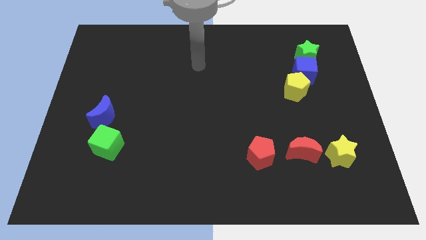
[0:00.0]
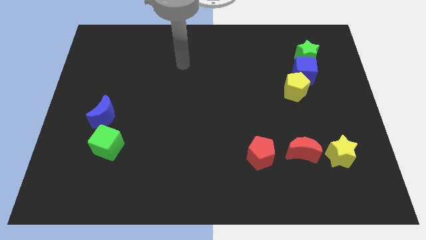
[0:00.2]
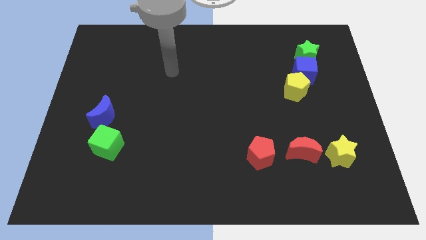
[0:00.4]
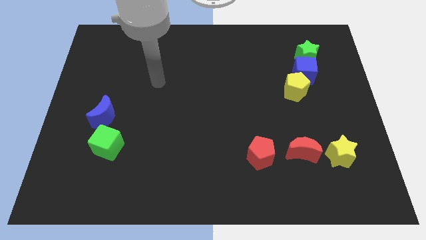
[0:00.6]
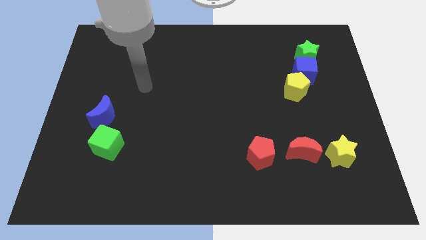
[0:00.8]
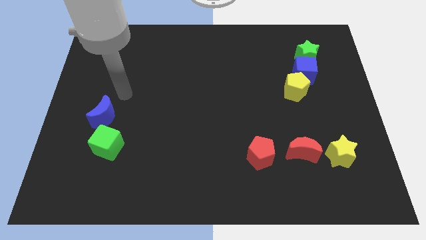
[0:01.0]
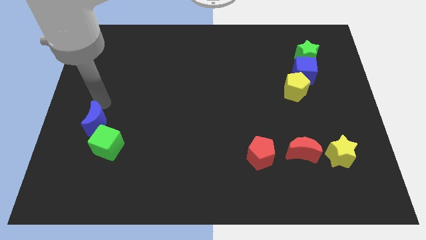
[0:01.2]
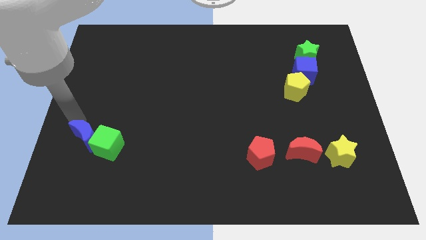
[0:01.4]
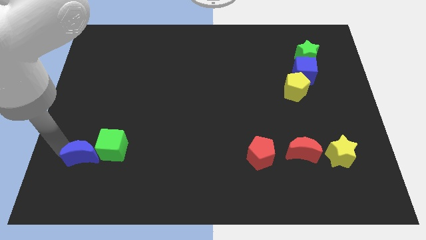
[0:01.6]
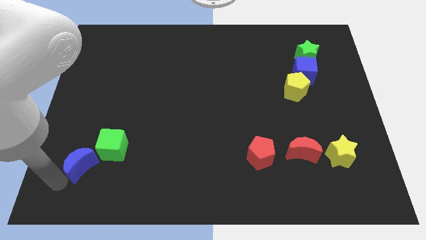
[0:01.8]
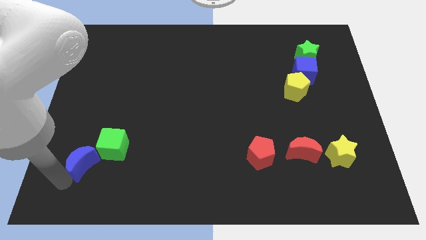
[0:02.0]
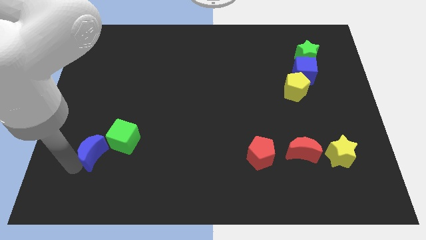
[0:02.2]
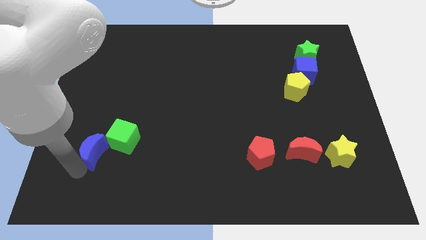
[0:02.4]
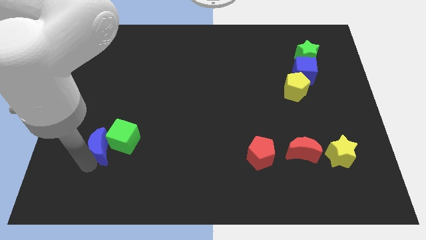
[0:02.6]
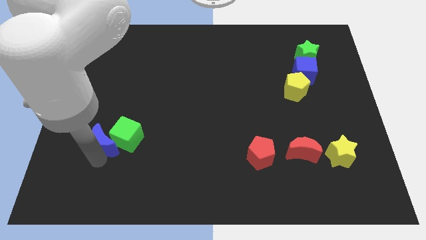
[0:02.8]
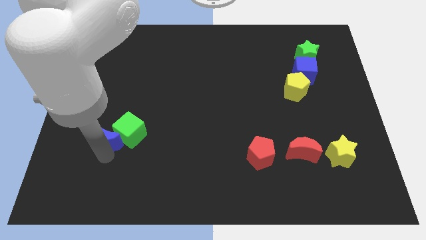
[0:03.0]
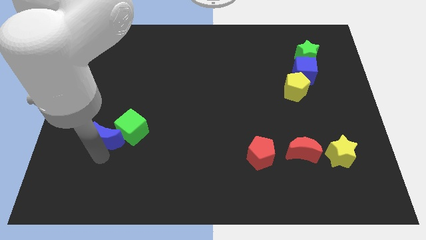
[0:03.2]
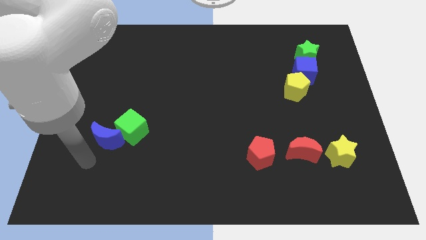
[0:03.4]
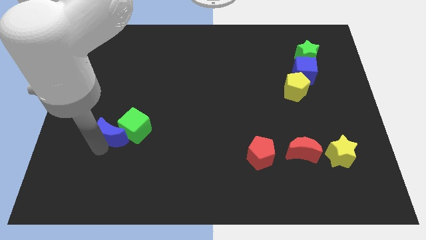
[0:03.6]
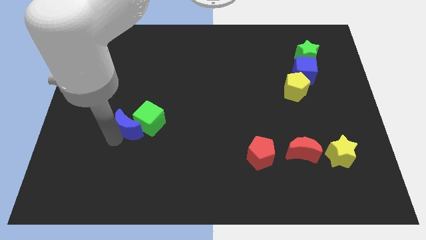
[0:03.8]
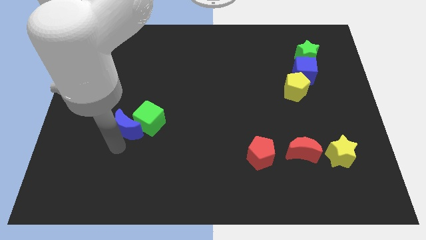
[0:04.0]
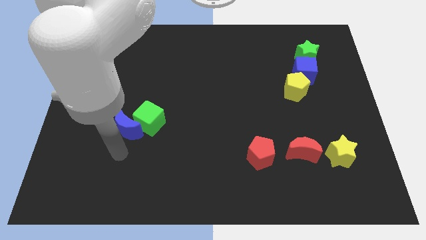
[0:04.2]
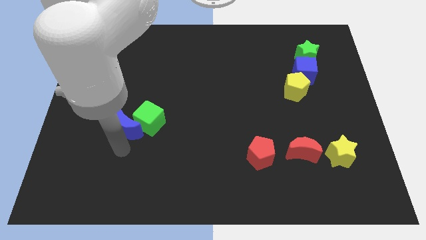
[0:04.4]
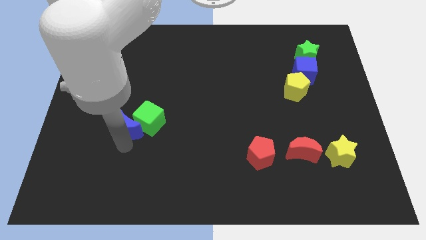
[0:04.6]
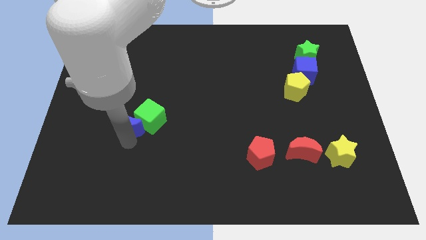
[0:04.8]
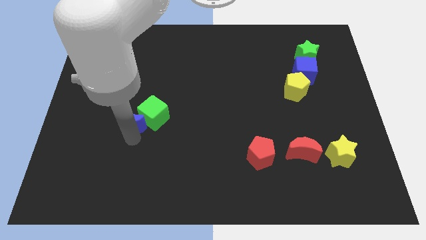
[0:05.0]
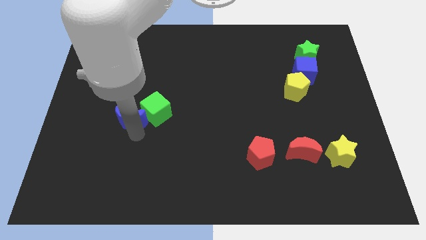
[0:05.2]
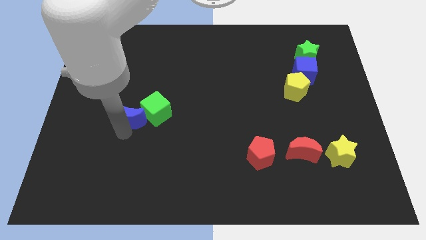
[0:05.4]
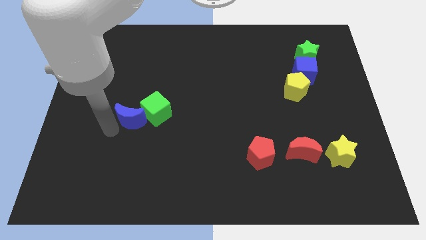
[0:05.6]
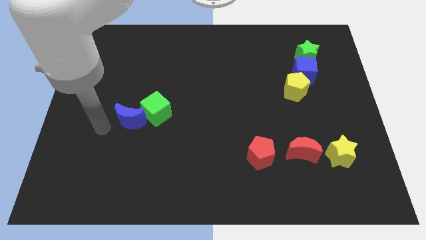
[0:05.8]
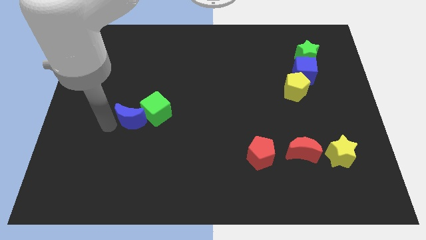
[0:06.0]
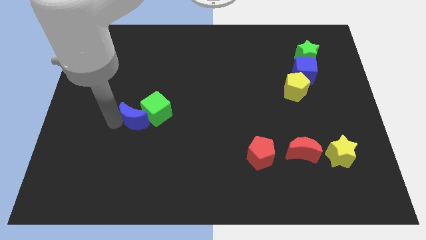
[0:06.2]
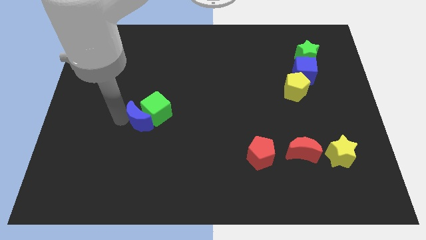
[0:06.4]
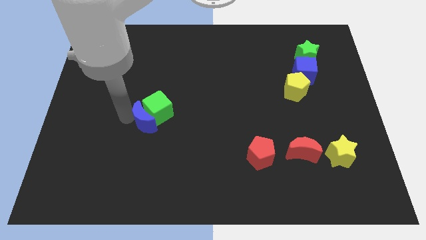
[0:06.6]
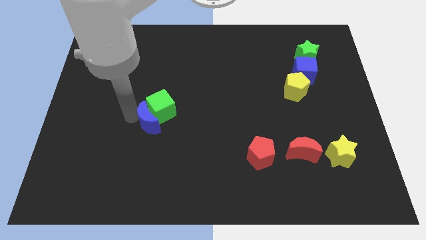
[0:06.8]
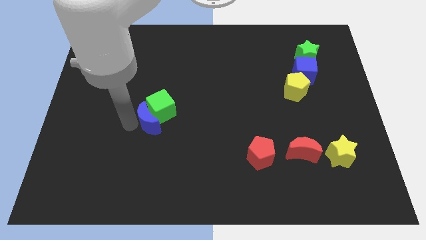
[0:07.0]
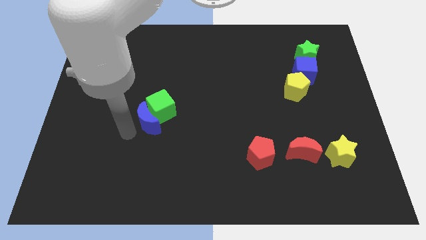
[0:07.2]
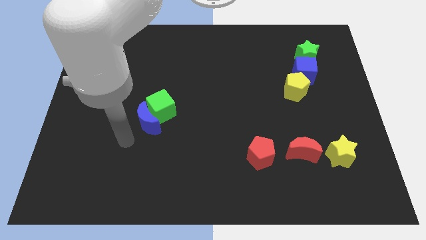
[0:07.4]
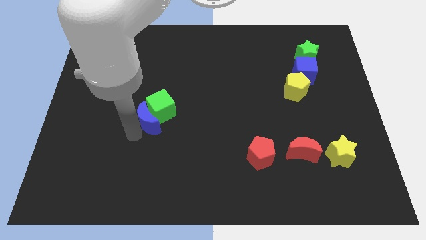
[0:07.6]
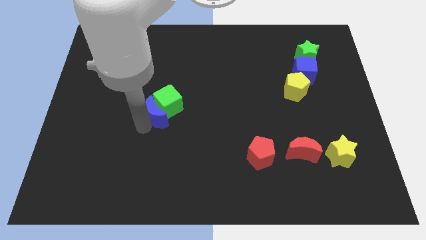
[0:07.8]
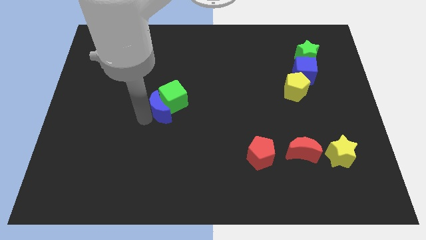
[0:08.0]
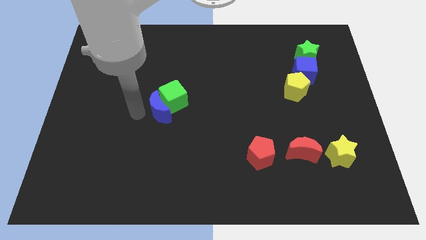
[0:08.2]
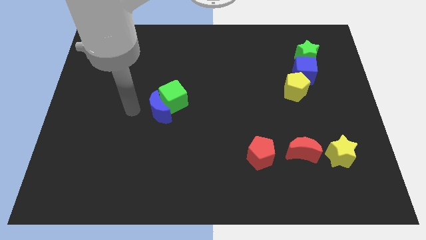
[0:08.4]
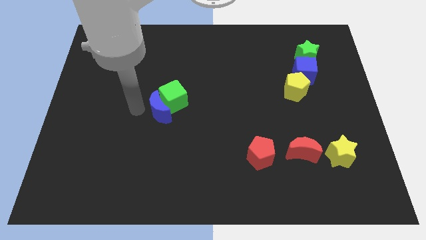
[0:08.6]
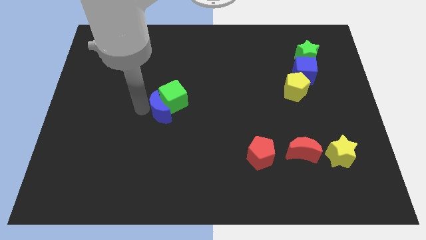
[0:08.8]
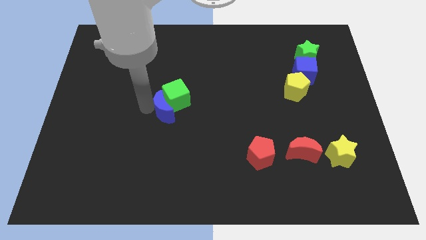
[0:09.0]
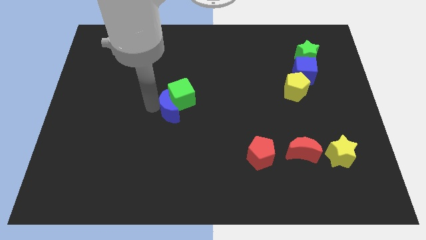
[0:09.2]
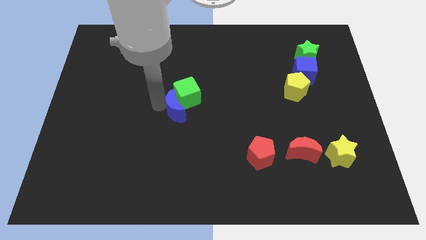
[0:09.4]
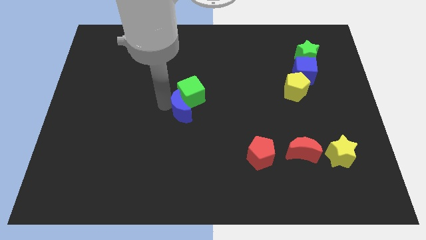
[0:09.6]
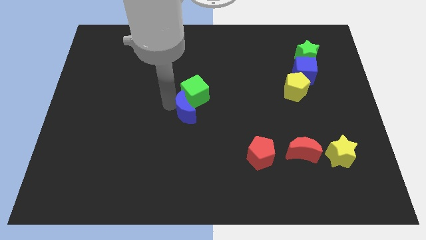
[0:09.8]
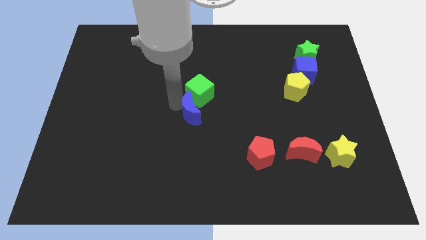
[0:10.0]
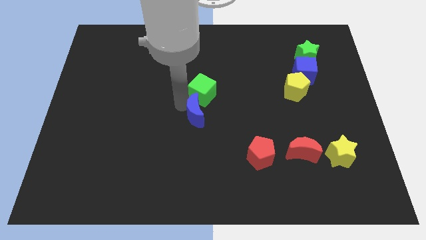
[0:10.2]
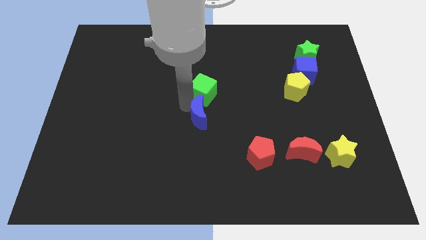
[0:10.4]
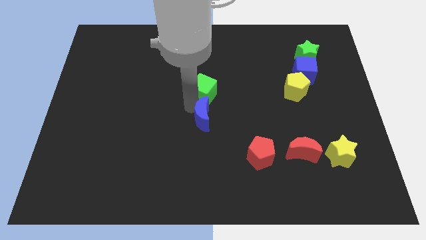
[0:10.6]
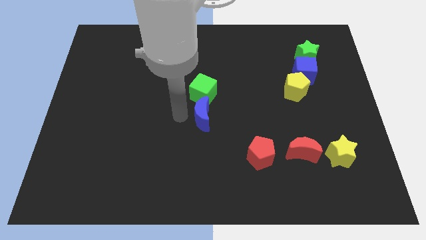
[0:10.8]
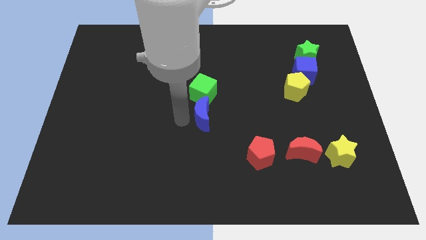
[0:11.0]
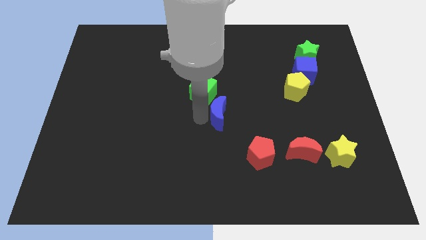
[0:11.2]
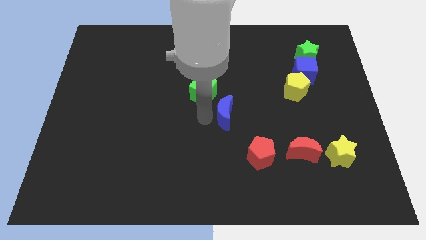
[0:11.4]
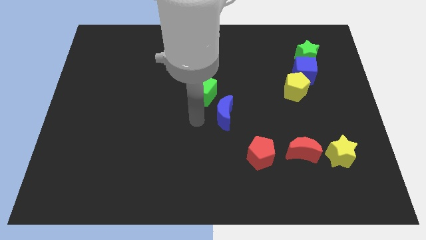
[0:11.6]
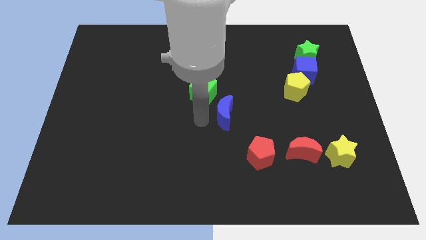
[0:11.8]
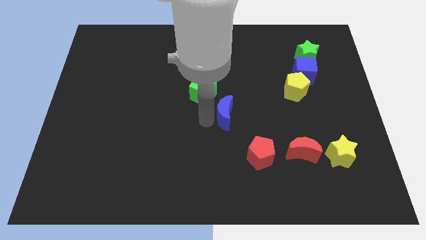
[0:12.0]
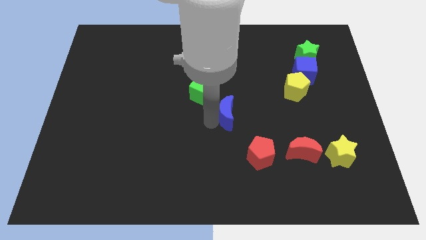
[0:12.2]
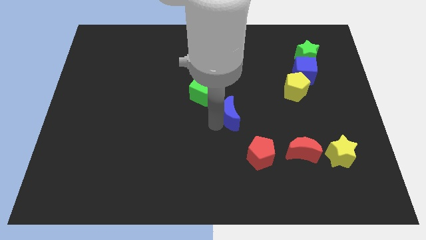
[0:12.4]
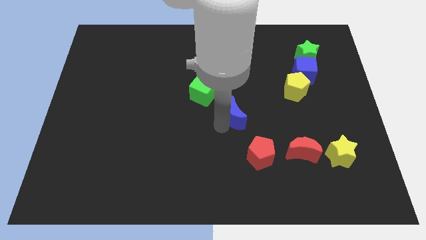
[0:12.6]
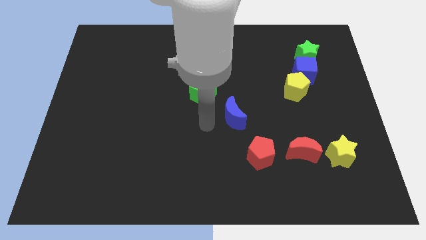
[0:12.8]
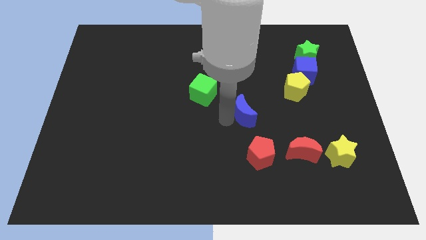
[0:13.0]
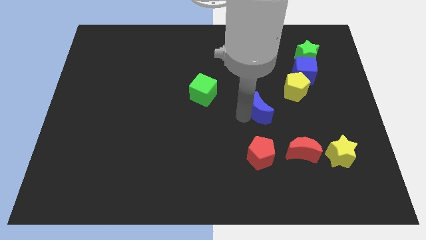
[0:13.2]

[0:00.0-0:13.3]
slide the blue moon to the bottom left of the yellow pentagon
